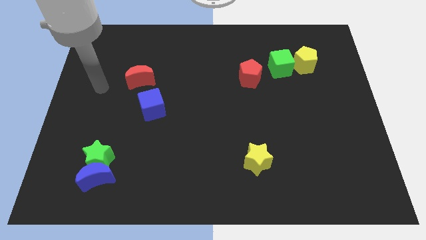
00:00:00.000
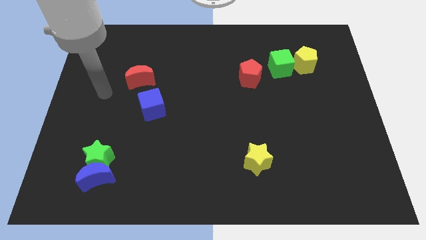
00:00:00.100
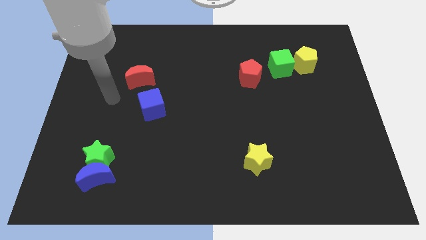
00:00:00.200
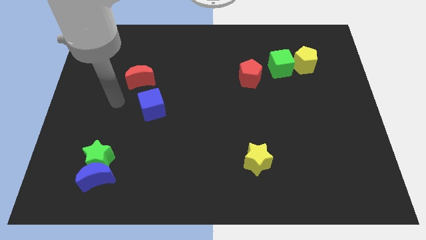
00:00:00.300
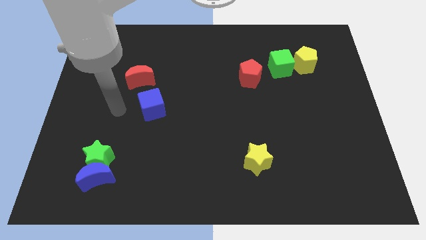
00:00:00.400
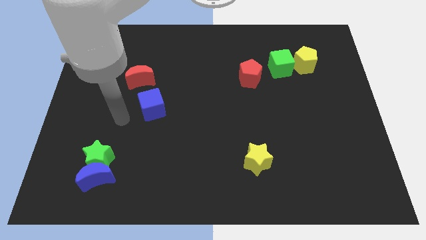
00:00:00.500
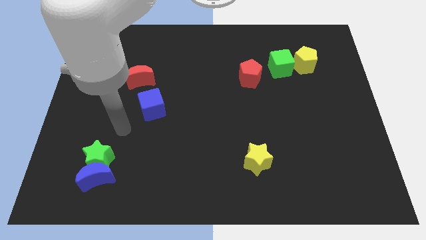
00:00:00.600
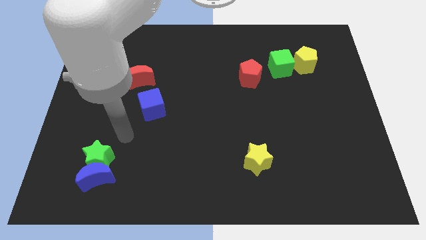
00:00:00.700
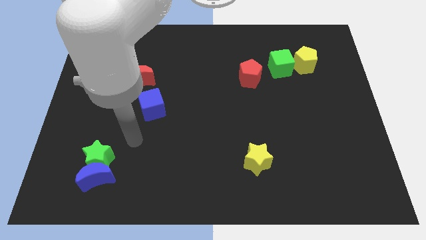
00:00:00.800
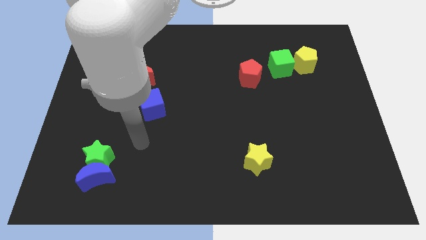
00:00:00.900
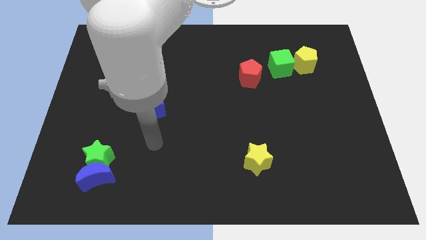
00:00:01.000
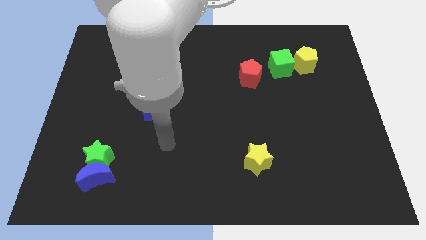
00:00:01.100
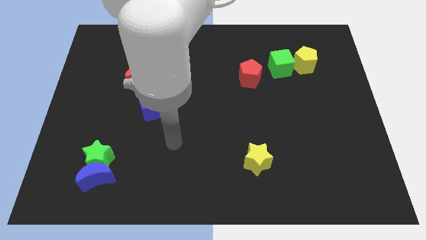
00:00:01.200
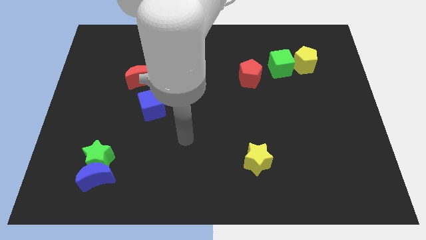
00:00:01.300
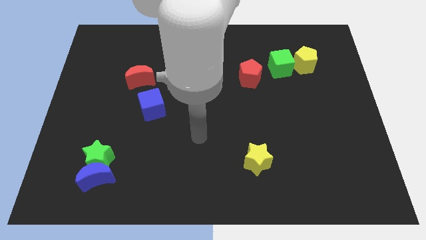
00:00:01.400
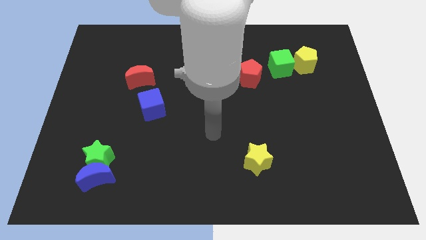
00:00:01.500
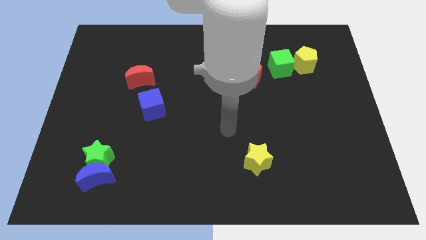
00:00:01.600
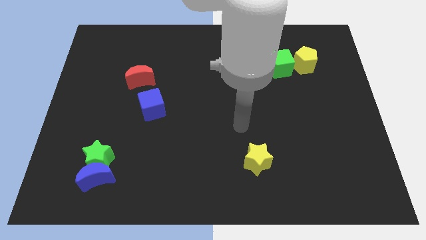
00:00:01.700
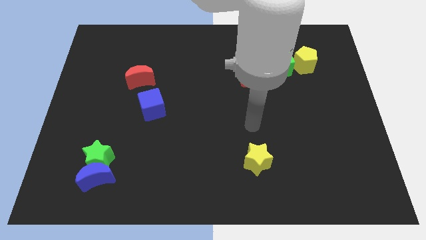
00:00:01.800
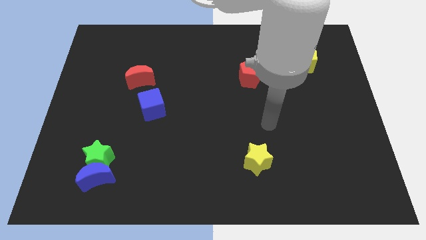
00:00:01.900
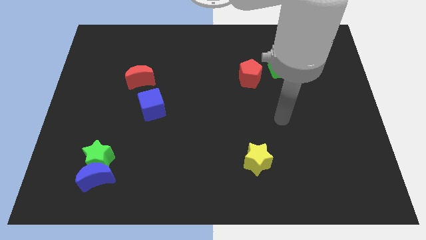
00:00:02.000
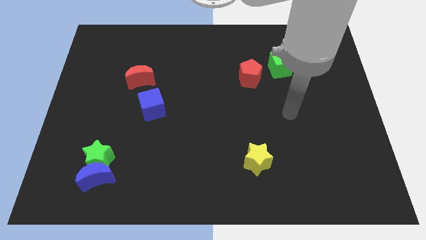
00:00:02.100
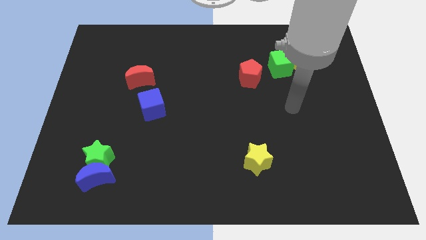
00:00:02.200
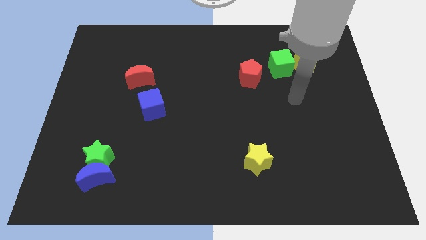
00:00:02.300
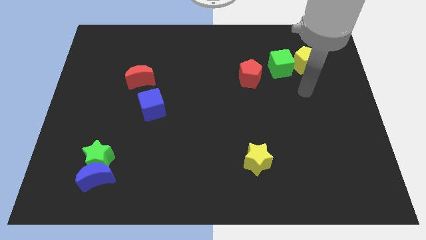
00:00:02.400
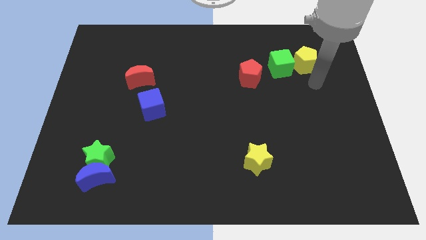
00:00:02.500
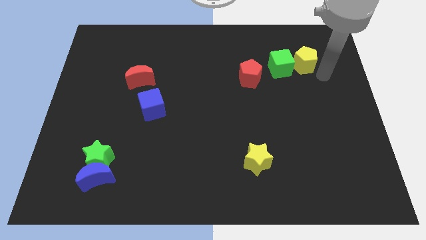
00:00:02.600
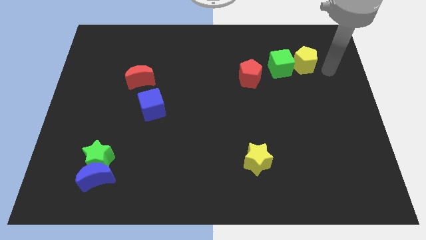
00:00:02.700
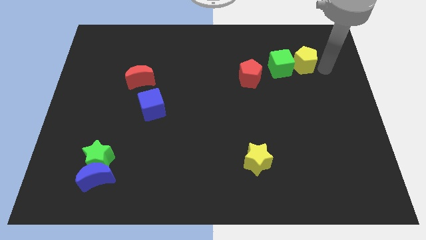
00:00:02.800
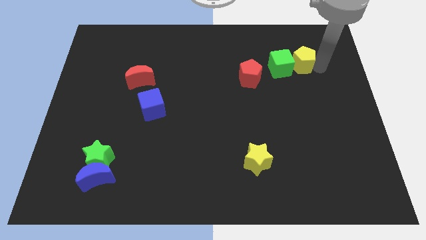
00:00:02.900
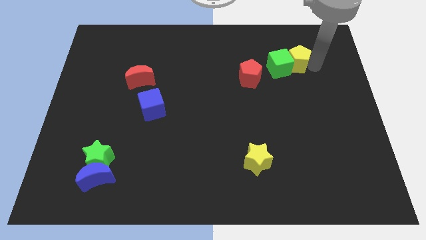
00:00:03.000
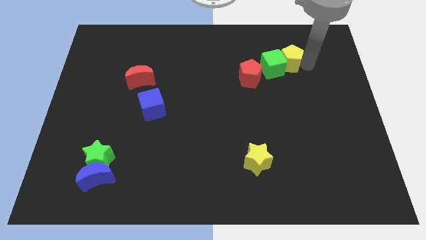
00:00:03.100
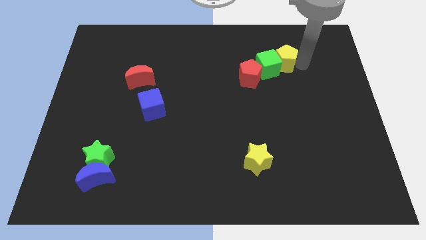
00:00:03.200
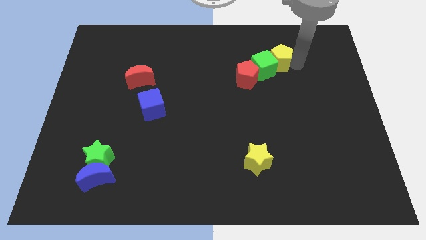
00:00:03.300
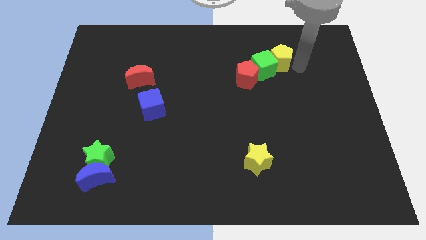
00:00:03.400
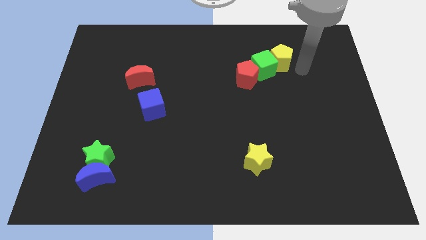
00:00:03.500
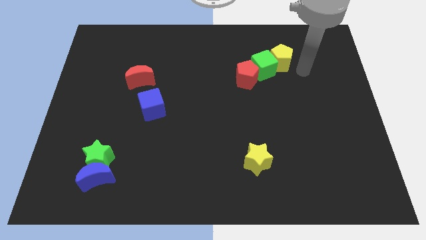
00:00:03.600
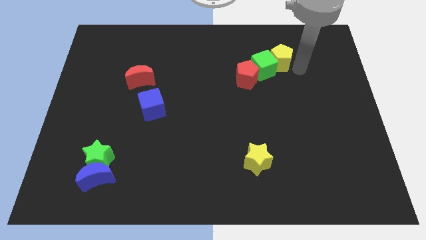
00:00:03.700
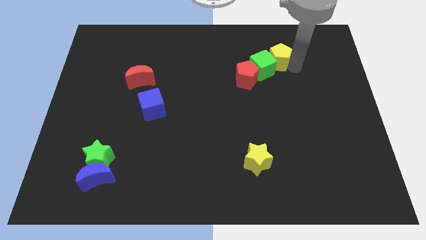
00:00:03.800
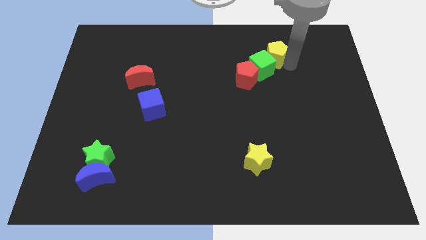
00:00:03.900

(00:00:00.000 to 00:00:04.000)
slide the yellow pentagon to the left a bit

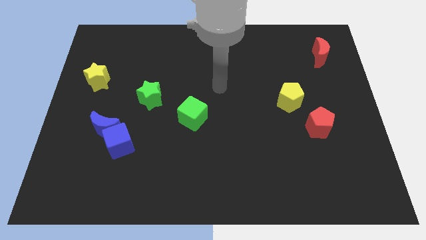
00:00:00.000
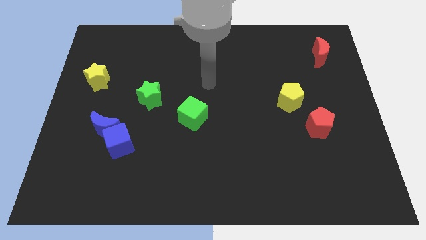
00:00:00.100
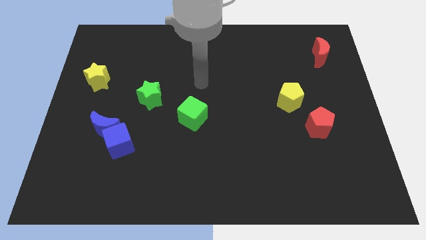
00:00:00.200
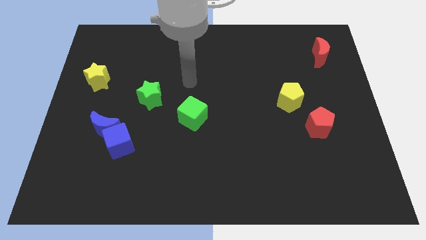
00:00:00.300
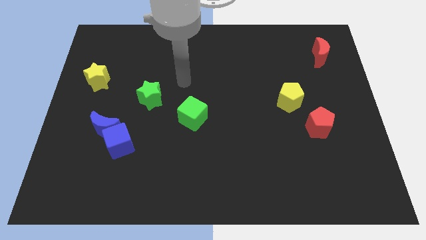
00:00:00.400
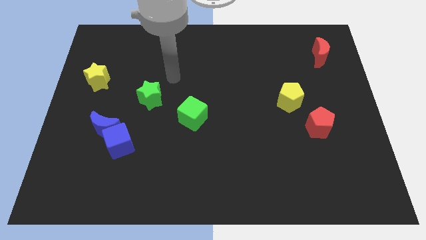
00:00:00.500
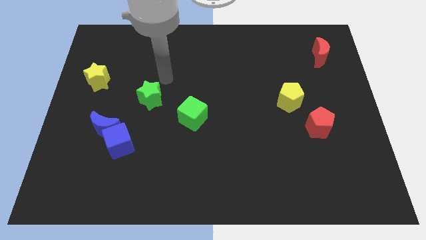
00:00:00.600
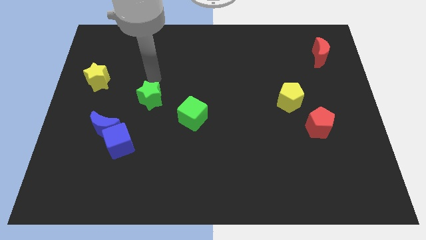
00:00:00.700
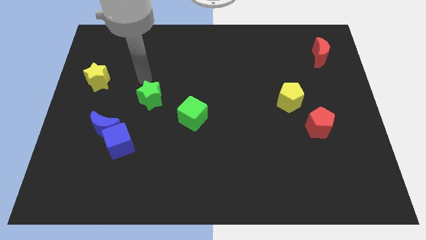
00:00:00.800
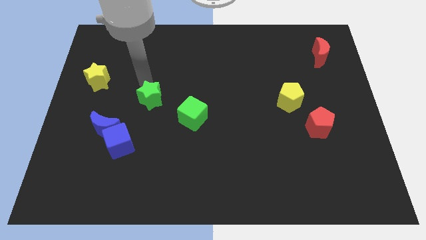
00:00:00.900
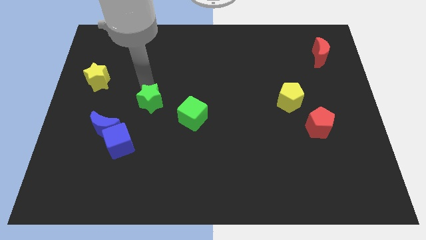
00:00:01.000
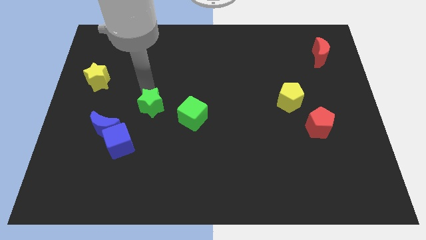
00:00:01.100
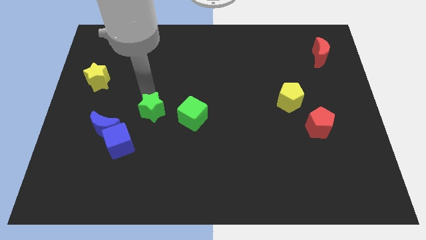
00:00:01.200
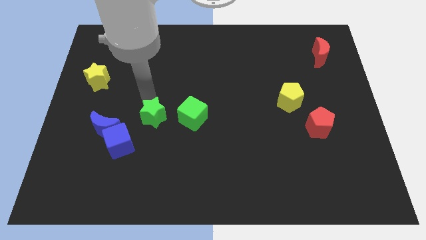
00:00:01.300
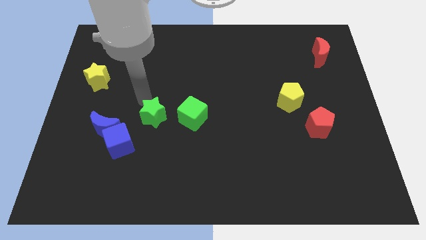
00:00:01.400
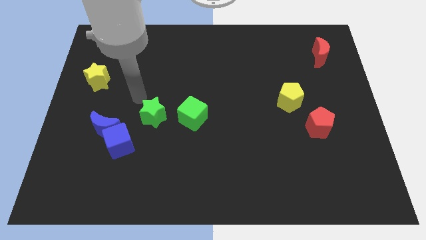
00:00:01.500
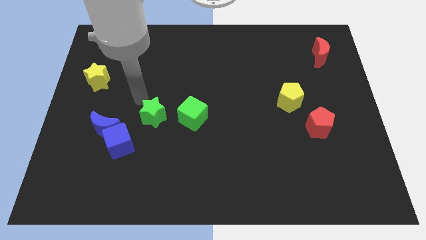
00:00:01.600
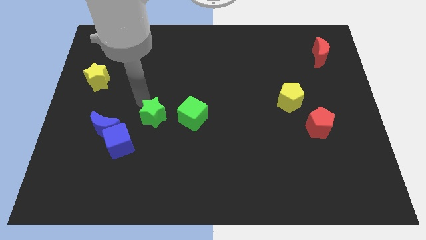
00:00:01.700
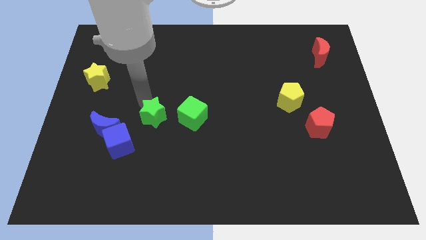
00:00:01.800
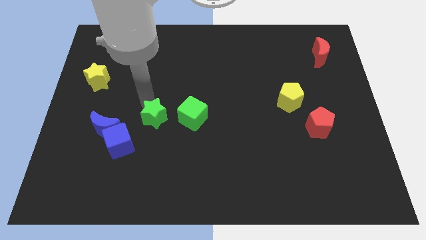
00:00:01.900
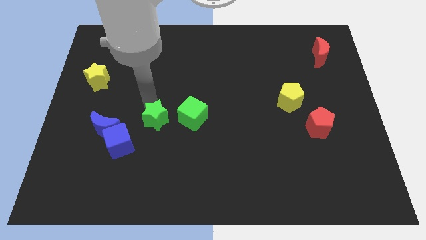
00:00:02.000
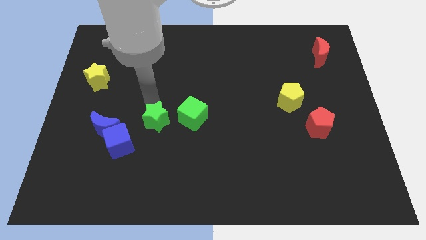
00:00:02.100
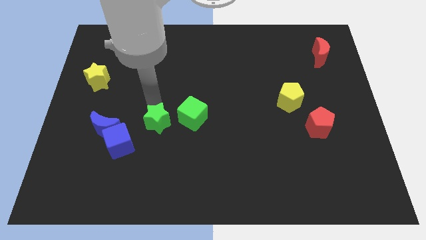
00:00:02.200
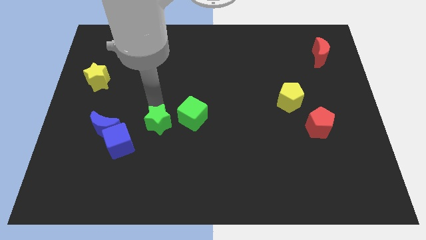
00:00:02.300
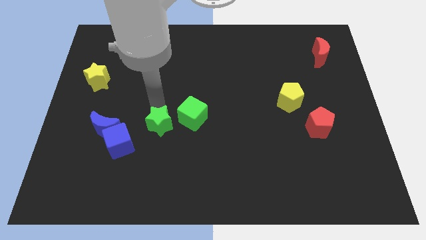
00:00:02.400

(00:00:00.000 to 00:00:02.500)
push the green star diagonally down and to the right somewhat

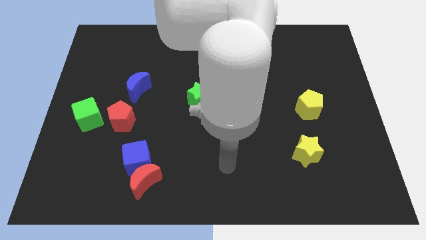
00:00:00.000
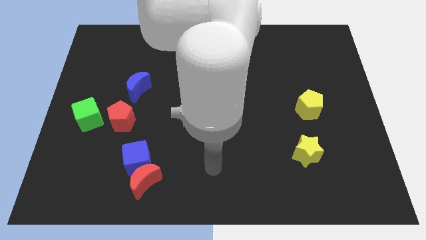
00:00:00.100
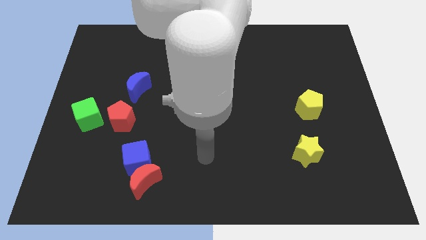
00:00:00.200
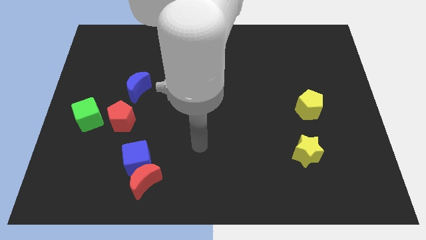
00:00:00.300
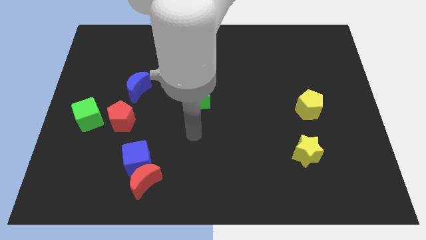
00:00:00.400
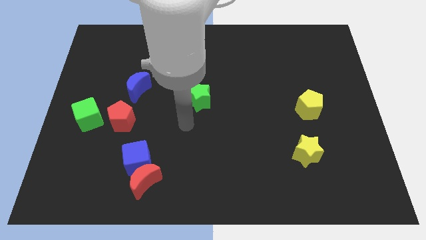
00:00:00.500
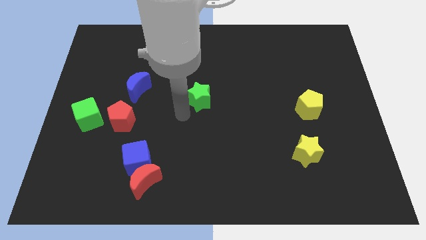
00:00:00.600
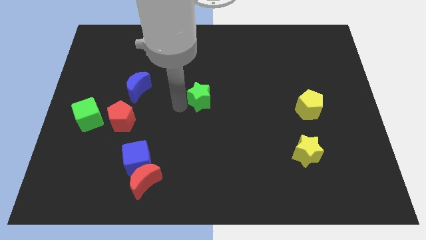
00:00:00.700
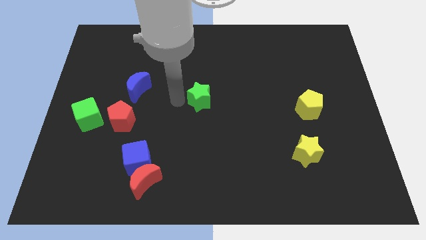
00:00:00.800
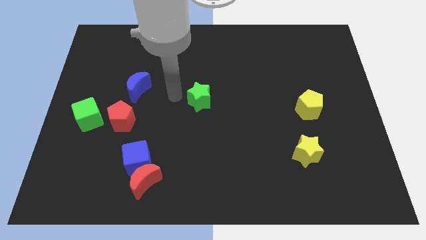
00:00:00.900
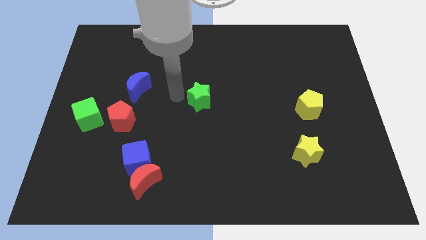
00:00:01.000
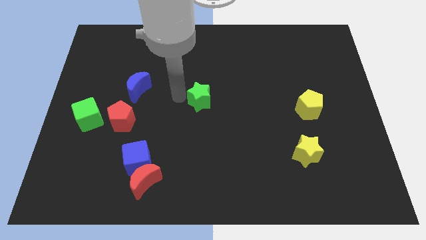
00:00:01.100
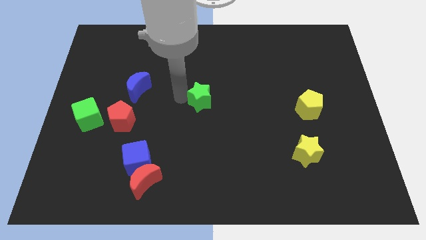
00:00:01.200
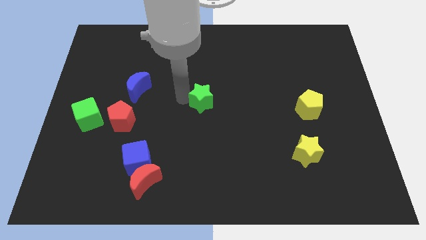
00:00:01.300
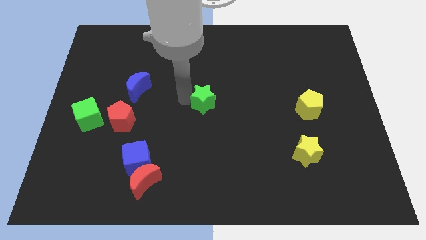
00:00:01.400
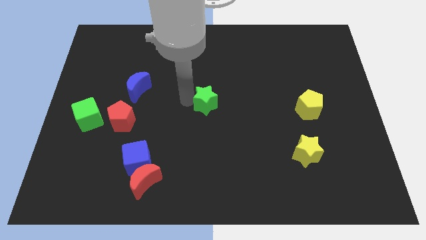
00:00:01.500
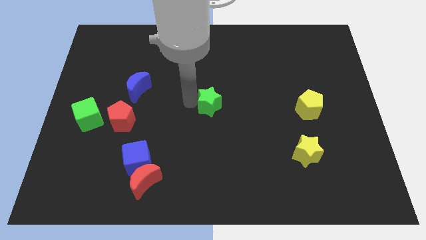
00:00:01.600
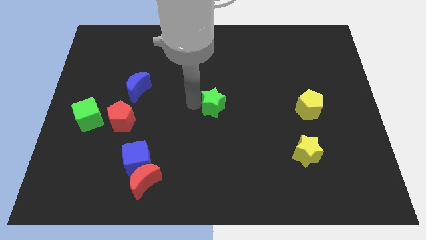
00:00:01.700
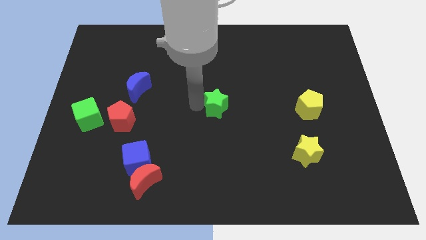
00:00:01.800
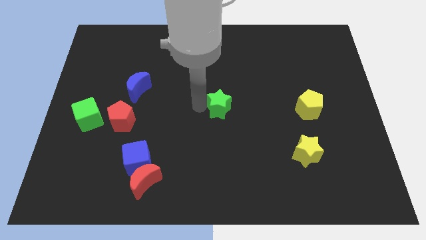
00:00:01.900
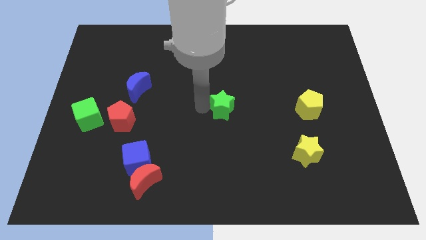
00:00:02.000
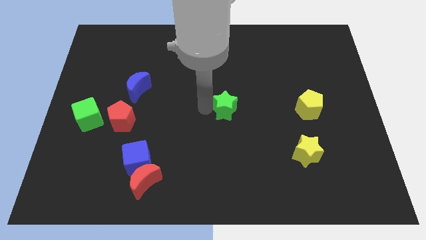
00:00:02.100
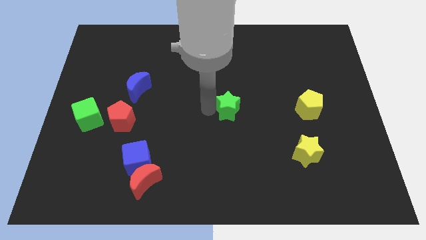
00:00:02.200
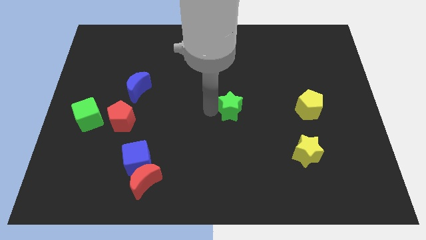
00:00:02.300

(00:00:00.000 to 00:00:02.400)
push the green star to the right a bit
